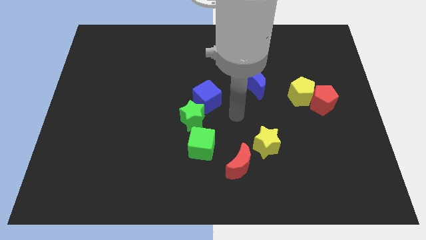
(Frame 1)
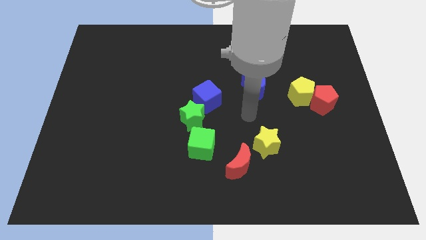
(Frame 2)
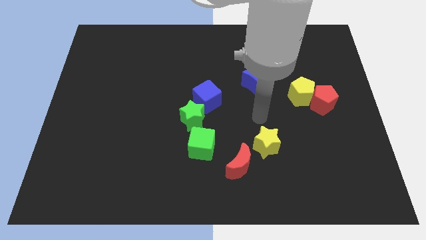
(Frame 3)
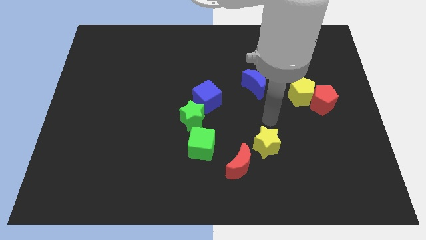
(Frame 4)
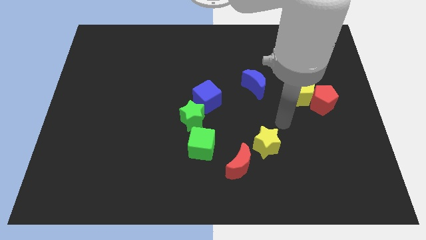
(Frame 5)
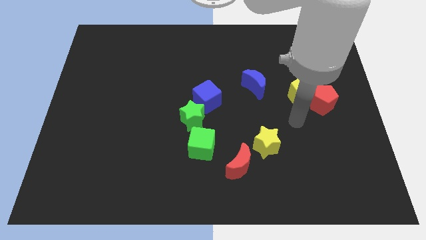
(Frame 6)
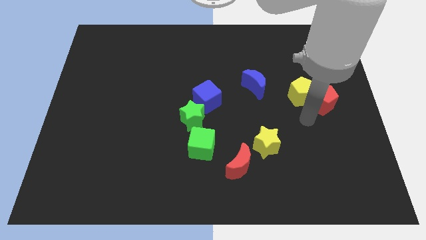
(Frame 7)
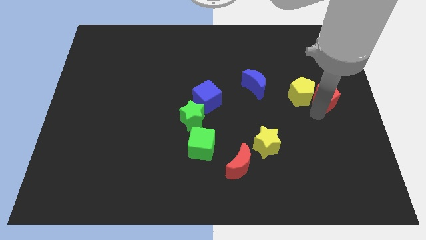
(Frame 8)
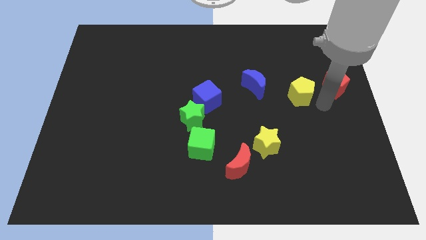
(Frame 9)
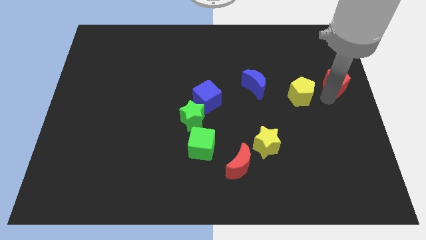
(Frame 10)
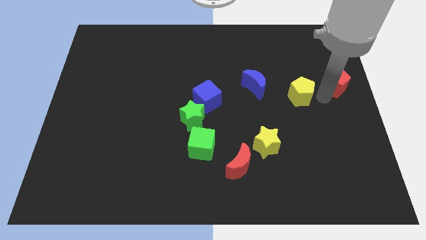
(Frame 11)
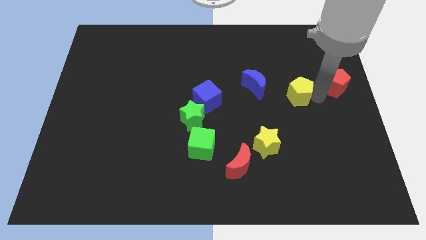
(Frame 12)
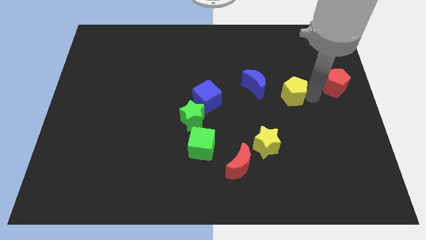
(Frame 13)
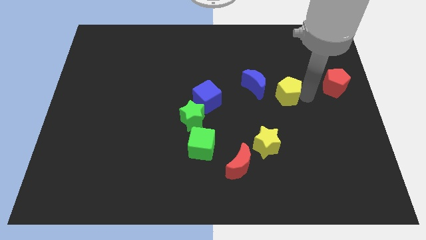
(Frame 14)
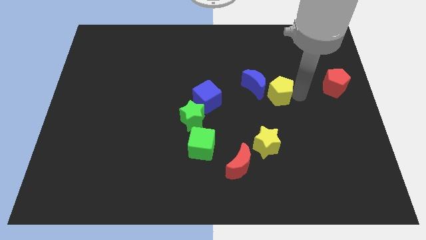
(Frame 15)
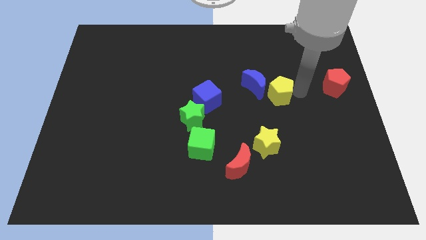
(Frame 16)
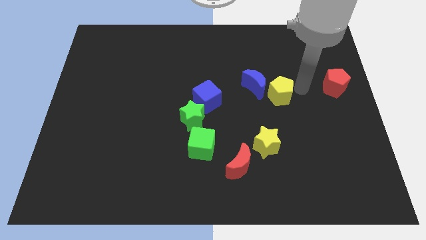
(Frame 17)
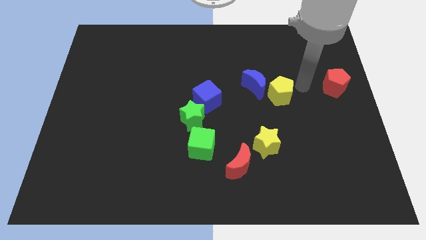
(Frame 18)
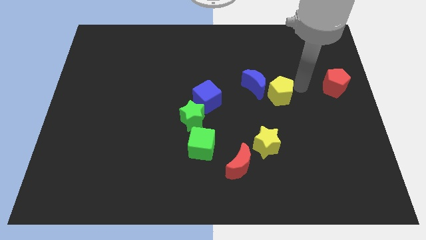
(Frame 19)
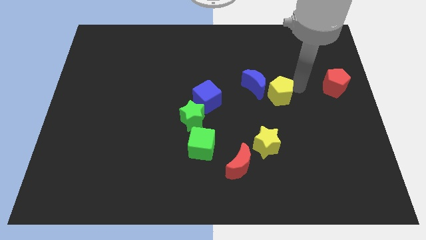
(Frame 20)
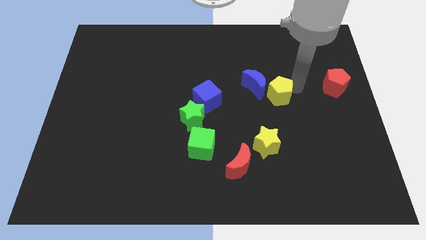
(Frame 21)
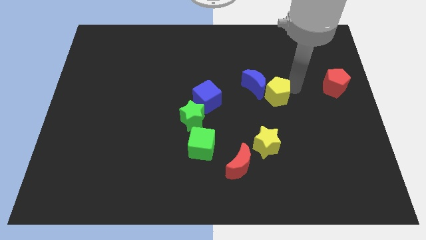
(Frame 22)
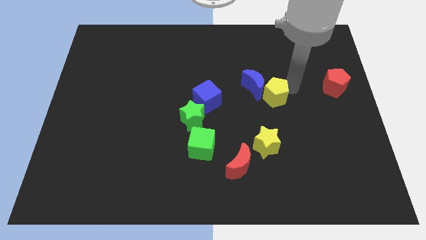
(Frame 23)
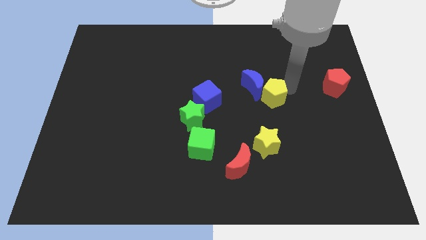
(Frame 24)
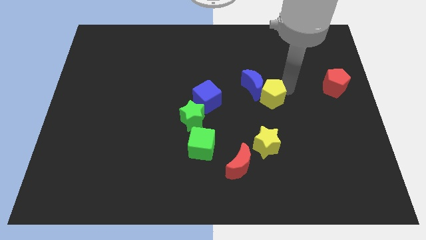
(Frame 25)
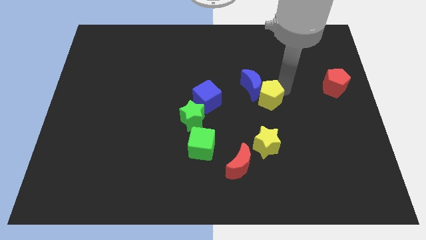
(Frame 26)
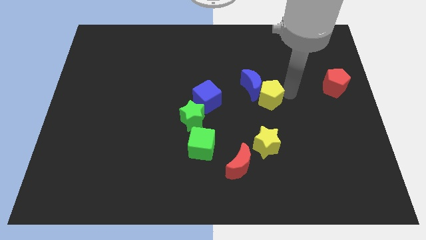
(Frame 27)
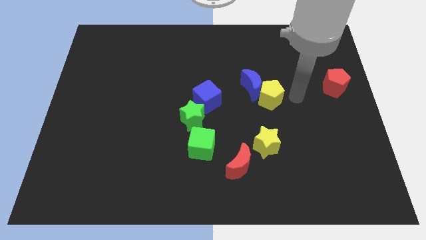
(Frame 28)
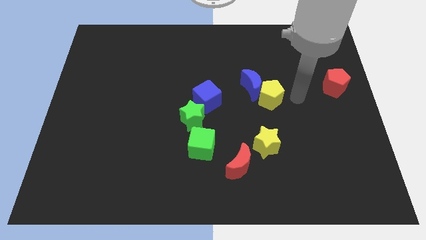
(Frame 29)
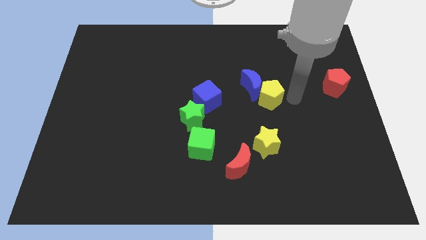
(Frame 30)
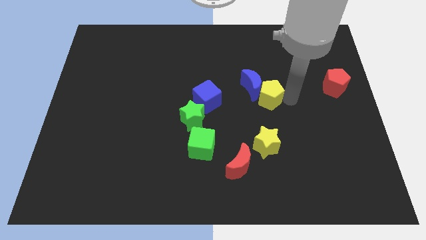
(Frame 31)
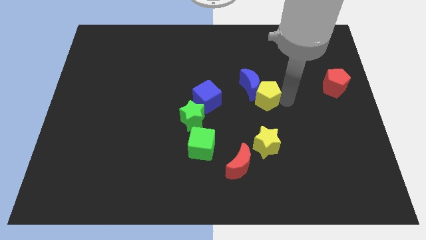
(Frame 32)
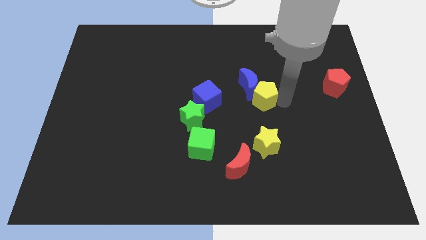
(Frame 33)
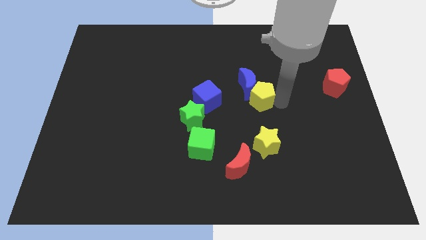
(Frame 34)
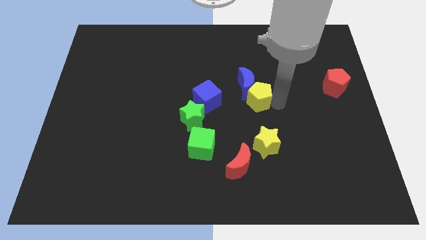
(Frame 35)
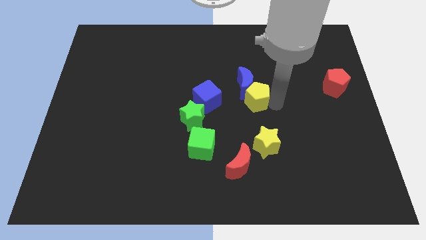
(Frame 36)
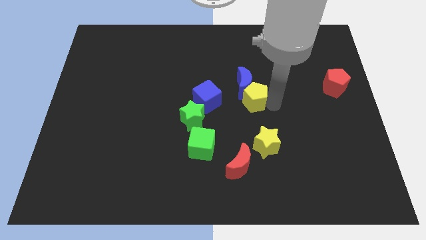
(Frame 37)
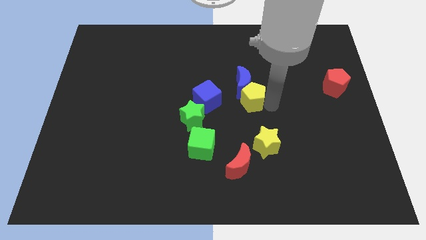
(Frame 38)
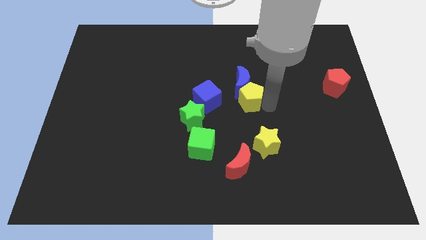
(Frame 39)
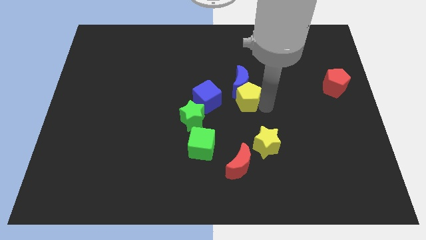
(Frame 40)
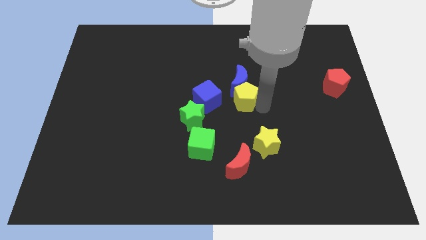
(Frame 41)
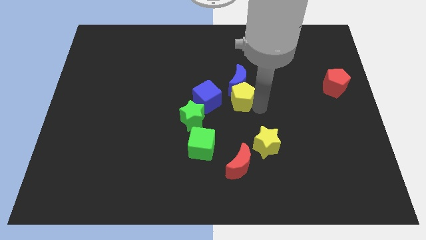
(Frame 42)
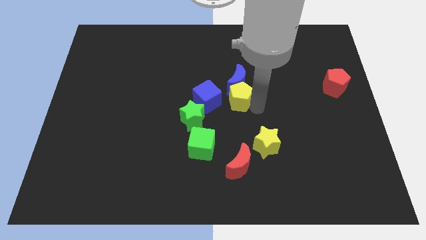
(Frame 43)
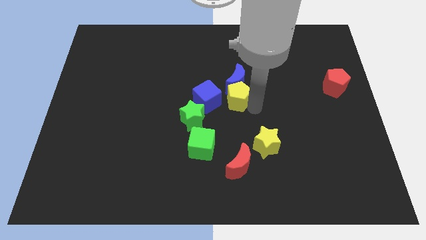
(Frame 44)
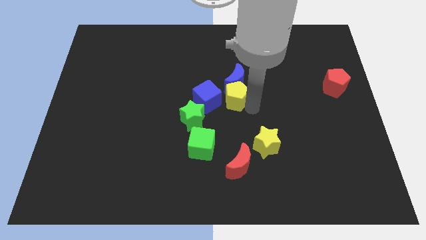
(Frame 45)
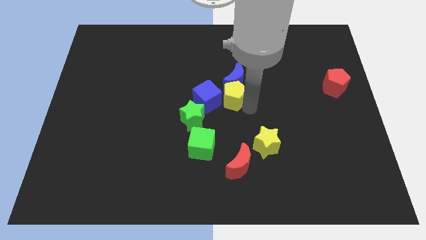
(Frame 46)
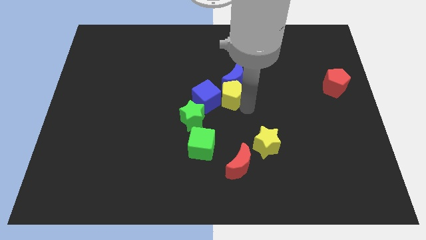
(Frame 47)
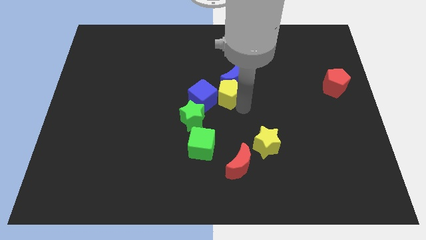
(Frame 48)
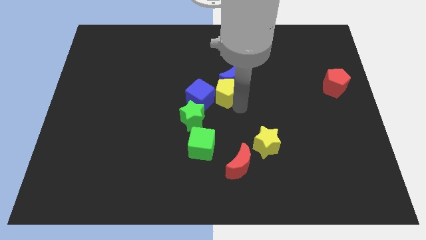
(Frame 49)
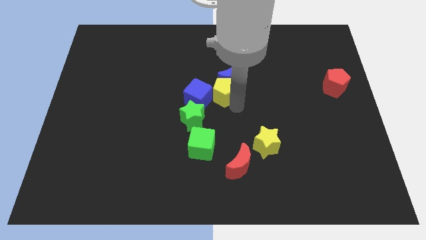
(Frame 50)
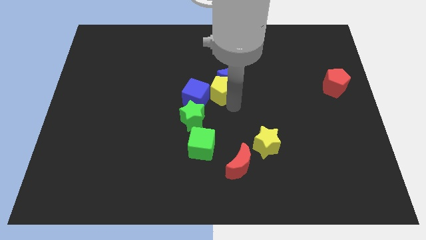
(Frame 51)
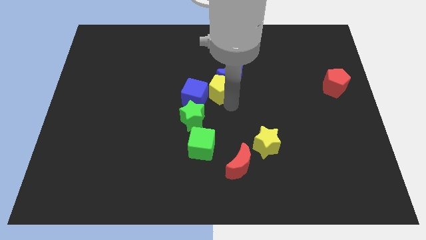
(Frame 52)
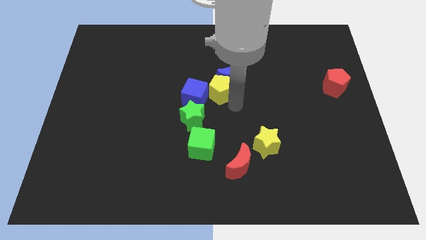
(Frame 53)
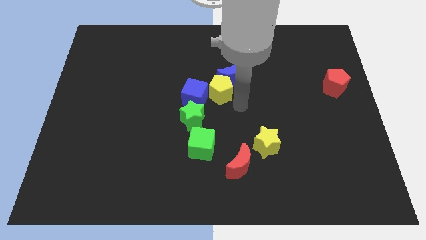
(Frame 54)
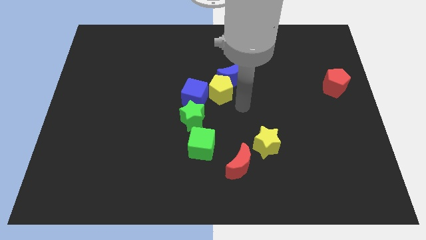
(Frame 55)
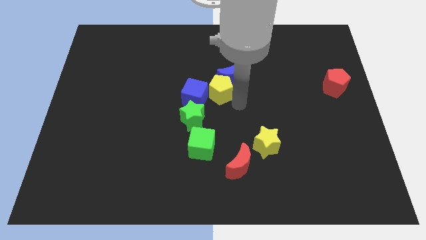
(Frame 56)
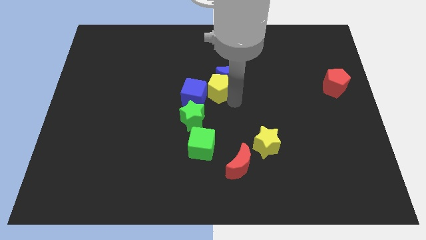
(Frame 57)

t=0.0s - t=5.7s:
push the yellow pentagon left

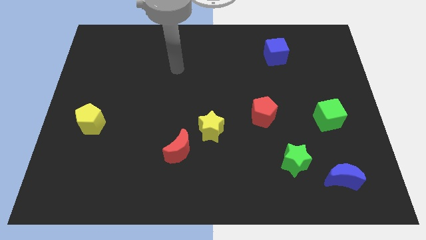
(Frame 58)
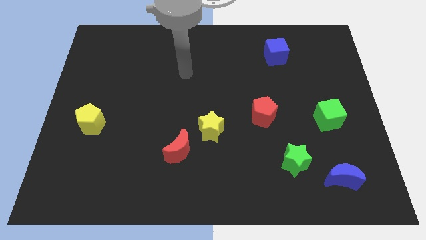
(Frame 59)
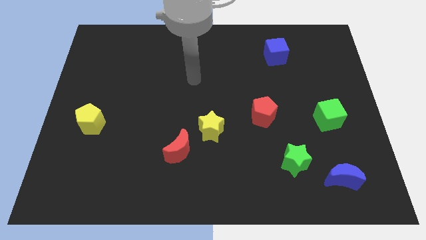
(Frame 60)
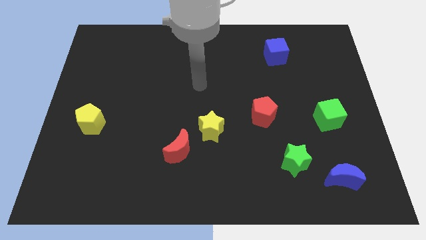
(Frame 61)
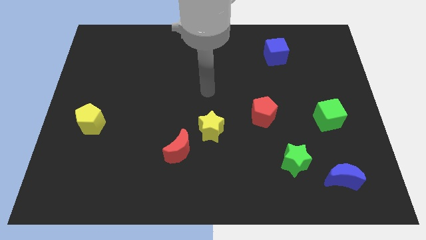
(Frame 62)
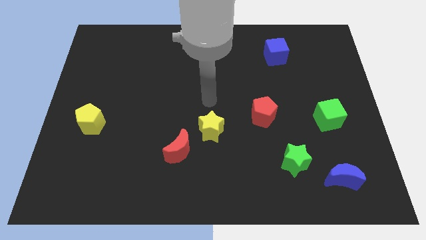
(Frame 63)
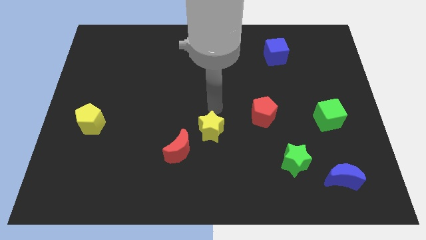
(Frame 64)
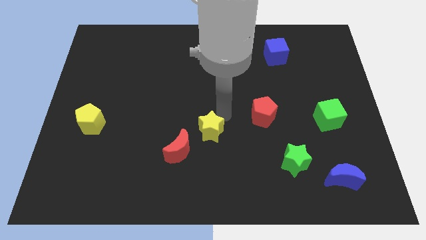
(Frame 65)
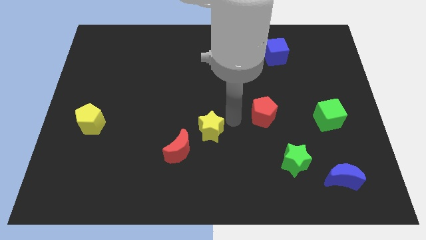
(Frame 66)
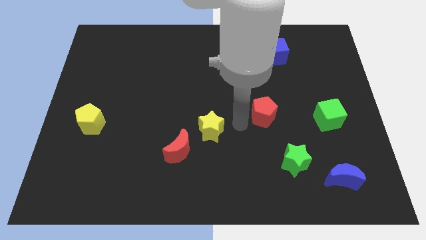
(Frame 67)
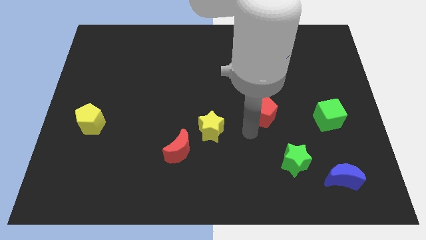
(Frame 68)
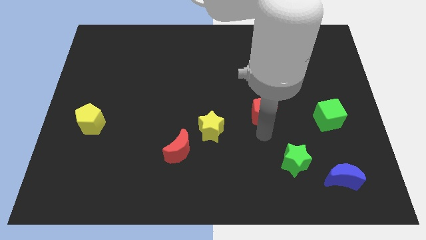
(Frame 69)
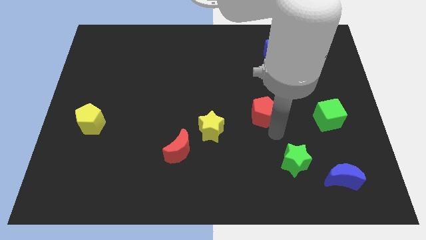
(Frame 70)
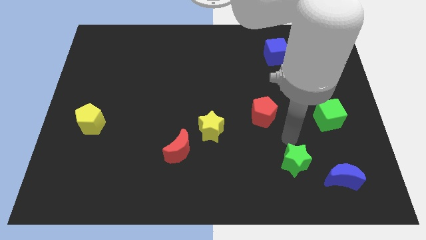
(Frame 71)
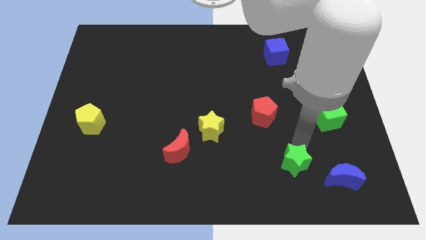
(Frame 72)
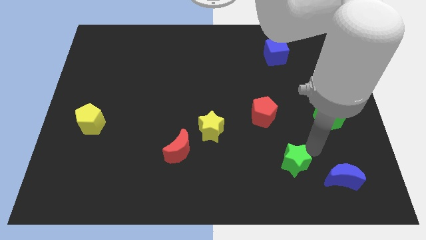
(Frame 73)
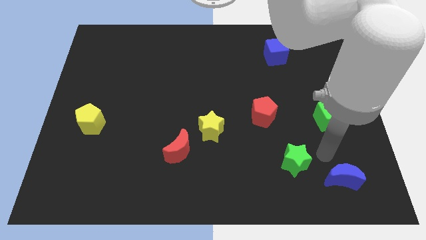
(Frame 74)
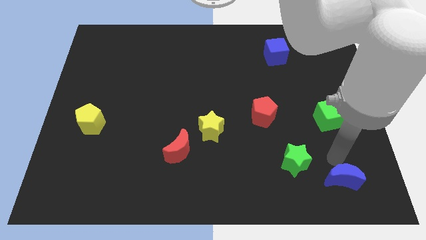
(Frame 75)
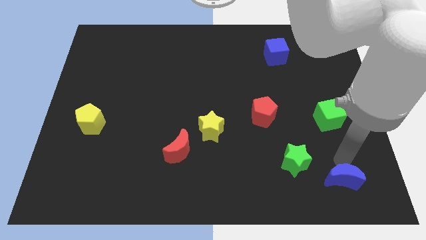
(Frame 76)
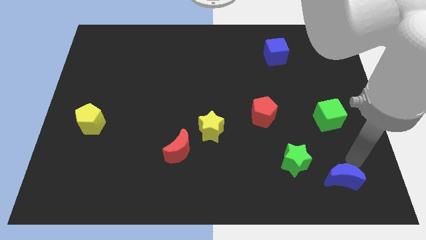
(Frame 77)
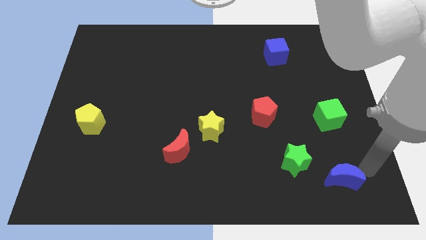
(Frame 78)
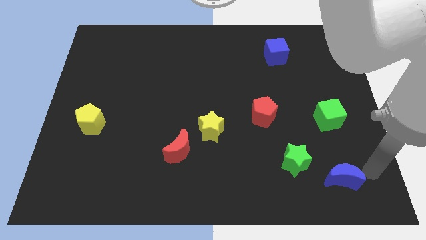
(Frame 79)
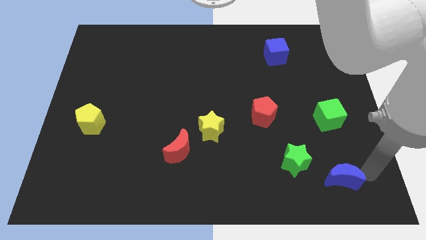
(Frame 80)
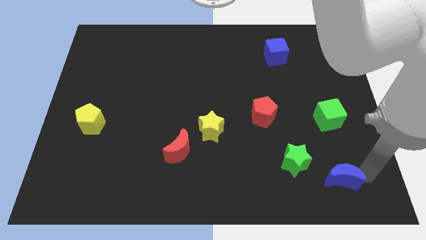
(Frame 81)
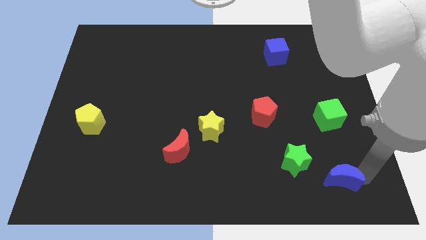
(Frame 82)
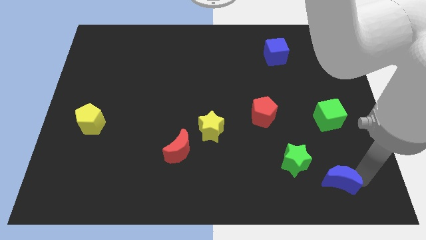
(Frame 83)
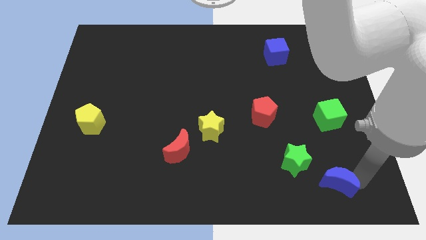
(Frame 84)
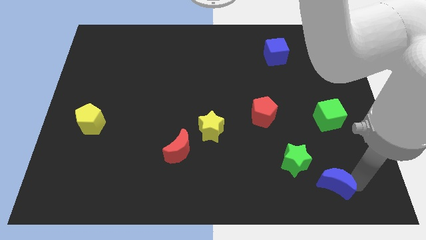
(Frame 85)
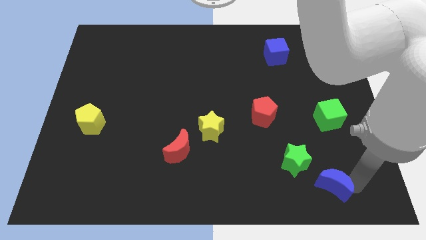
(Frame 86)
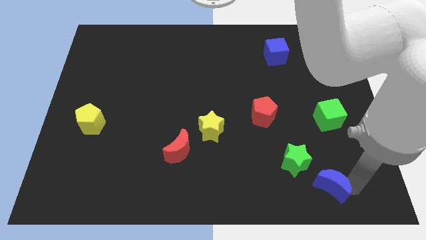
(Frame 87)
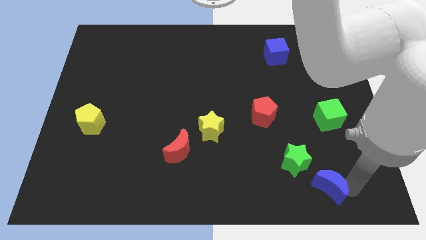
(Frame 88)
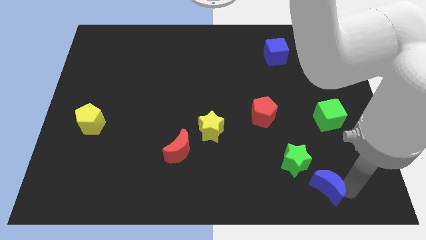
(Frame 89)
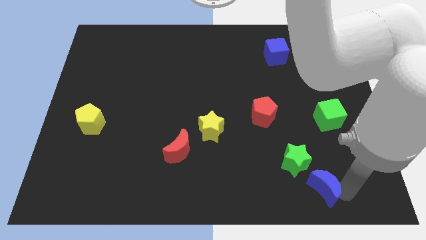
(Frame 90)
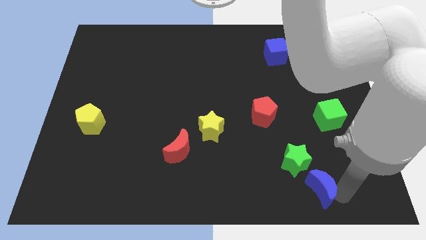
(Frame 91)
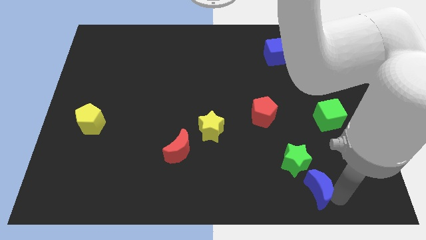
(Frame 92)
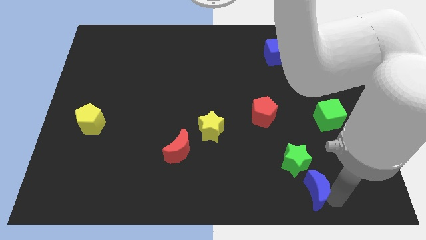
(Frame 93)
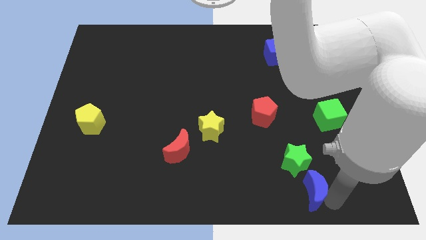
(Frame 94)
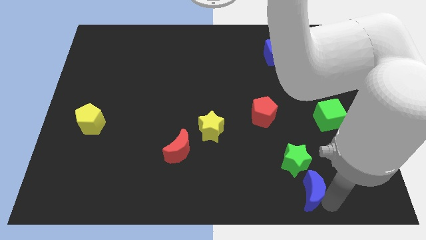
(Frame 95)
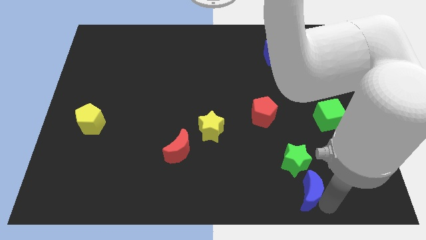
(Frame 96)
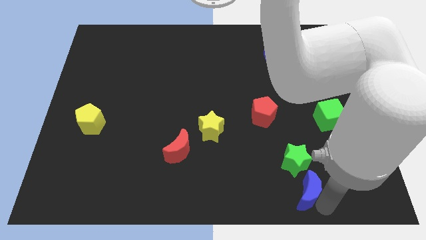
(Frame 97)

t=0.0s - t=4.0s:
slightly move the blue moon left
